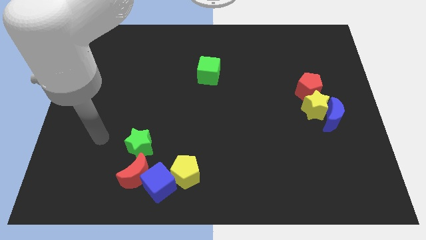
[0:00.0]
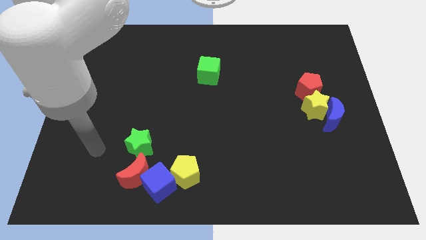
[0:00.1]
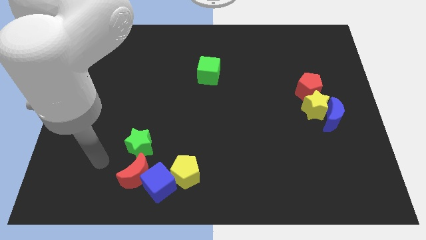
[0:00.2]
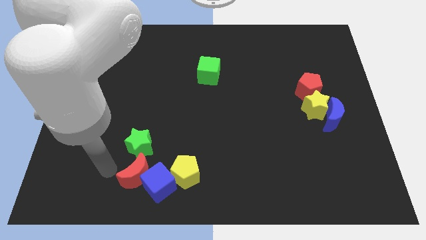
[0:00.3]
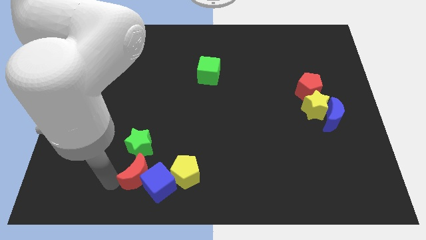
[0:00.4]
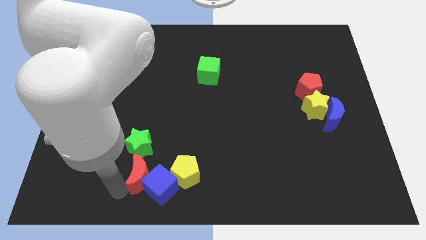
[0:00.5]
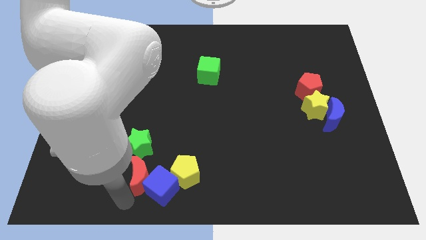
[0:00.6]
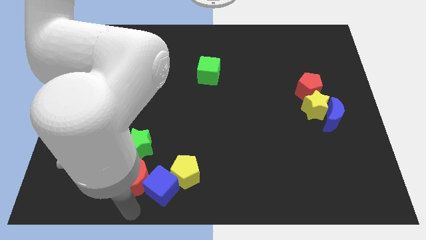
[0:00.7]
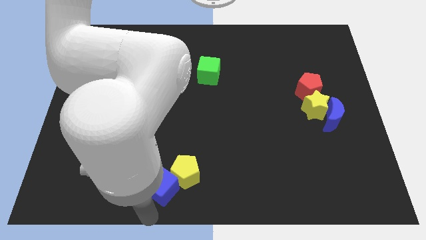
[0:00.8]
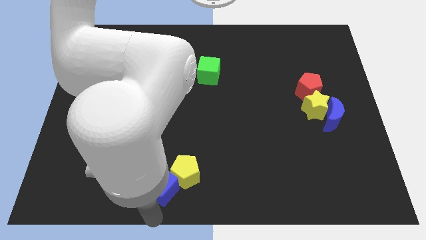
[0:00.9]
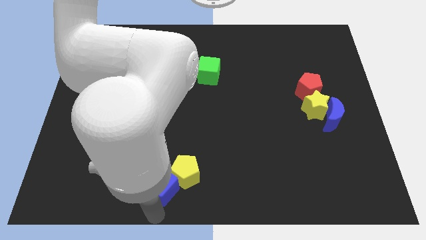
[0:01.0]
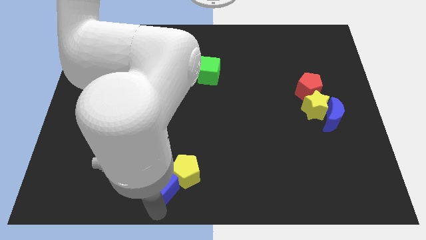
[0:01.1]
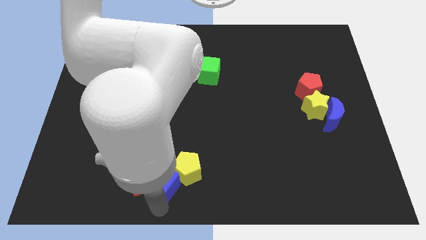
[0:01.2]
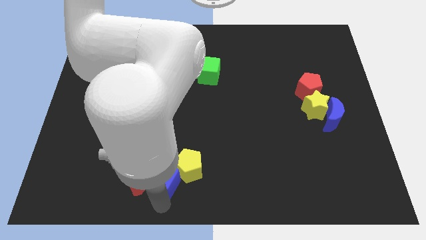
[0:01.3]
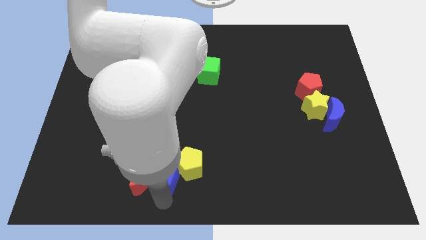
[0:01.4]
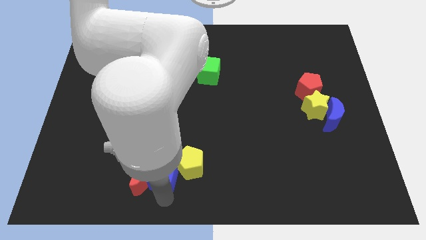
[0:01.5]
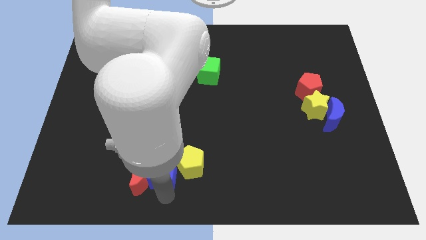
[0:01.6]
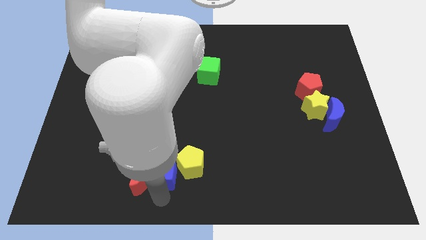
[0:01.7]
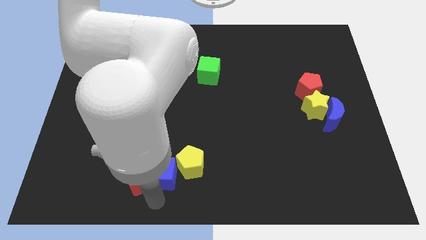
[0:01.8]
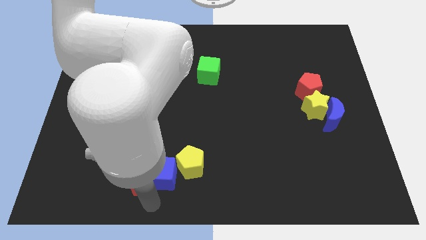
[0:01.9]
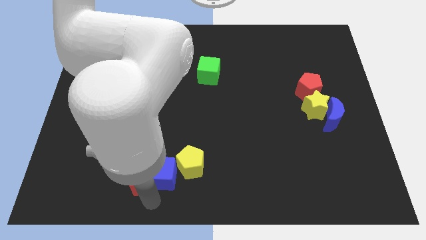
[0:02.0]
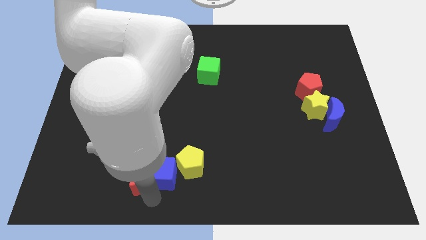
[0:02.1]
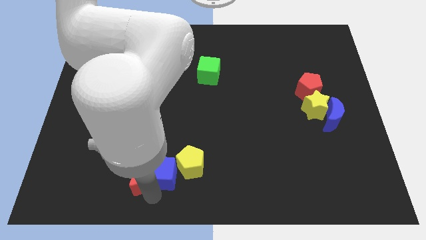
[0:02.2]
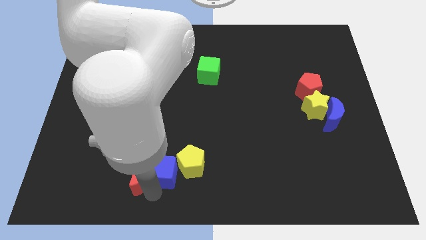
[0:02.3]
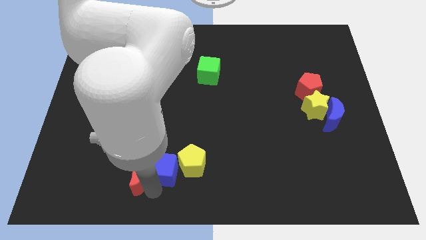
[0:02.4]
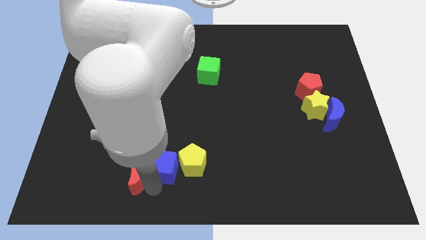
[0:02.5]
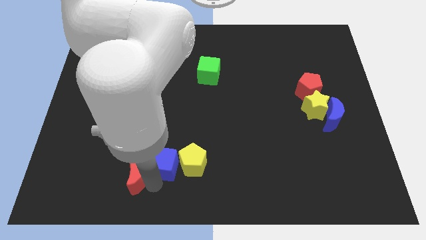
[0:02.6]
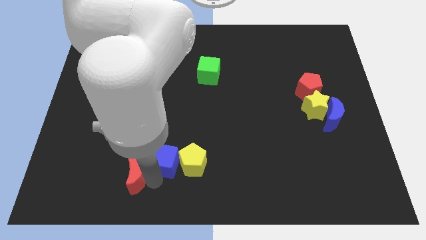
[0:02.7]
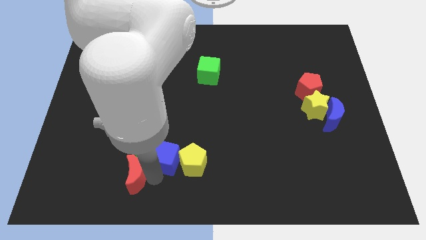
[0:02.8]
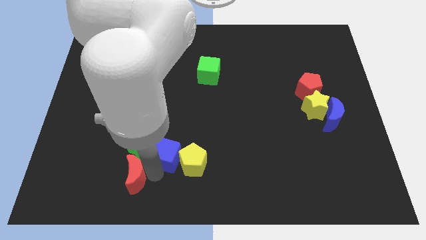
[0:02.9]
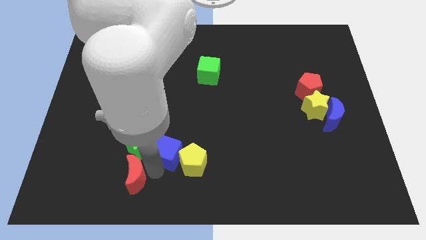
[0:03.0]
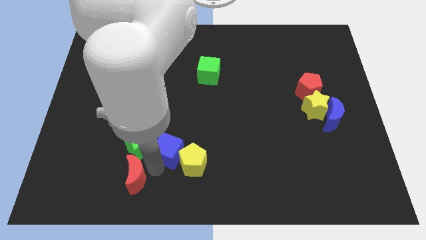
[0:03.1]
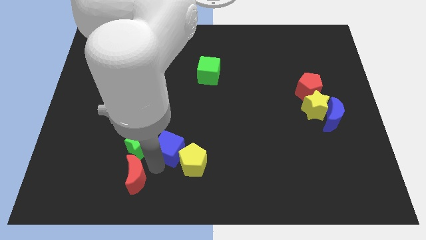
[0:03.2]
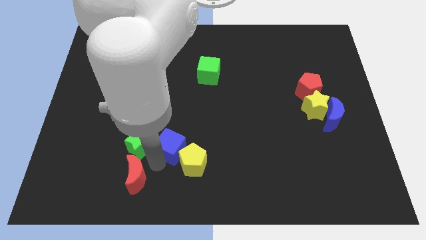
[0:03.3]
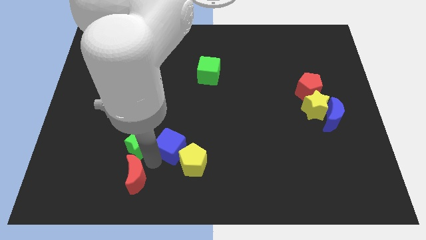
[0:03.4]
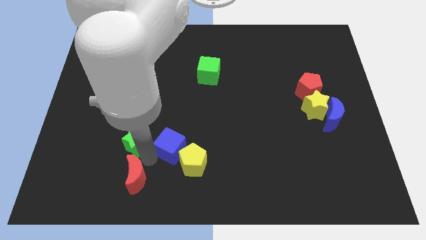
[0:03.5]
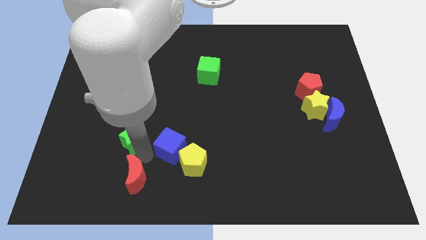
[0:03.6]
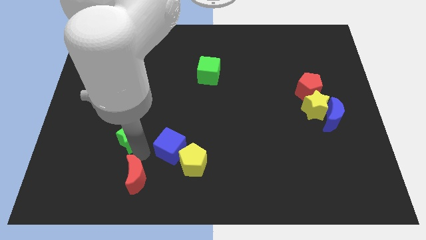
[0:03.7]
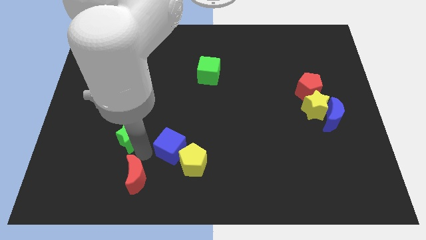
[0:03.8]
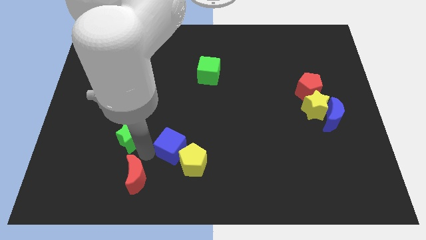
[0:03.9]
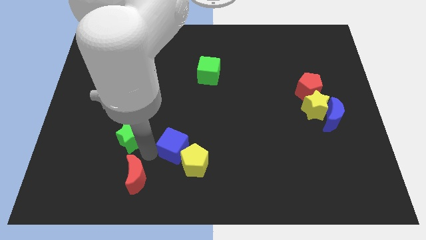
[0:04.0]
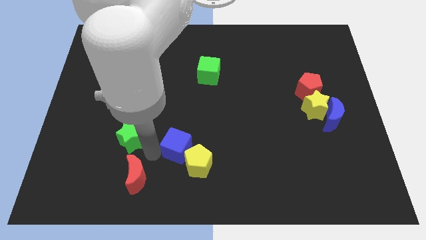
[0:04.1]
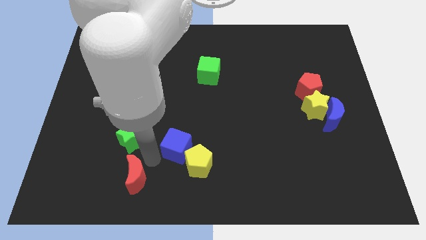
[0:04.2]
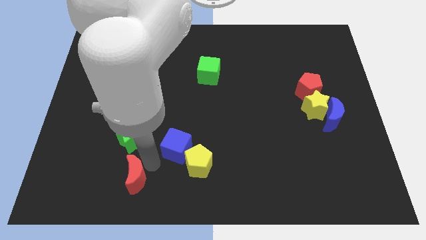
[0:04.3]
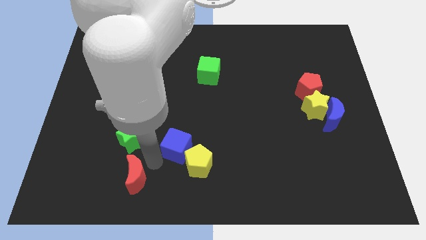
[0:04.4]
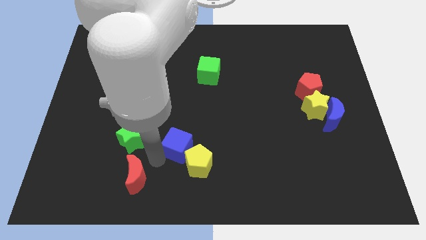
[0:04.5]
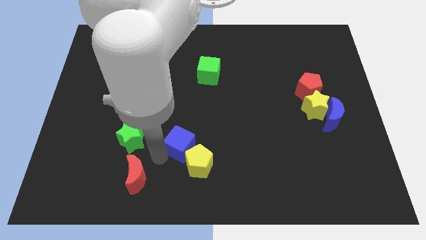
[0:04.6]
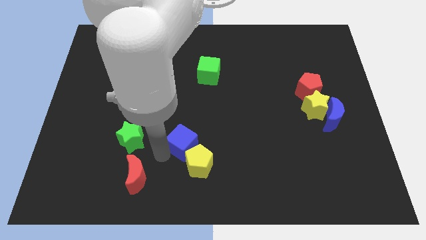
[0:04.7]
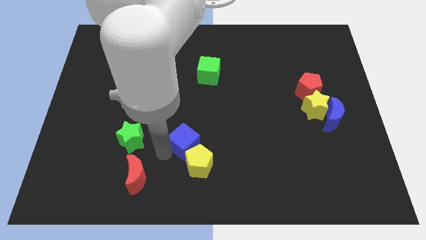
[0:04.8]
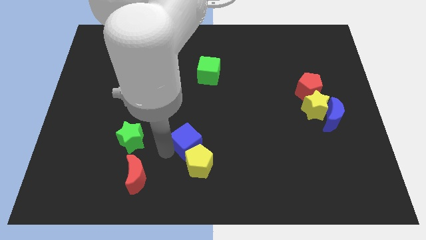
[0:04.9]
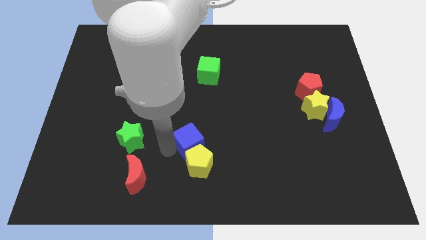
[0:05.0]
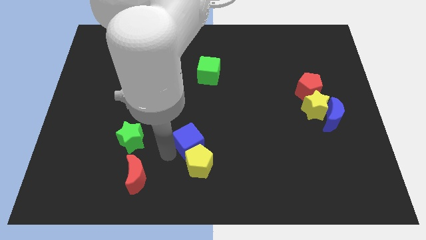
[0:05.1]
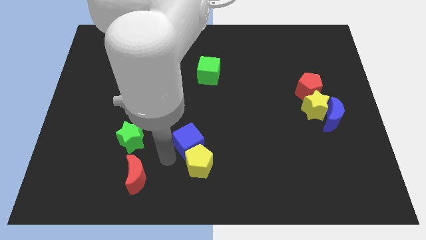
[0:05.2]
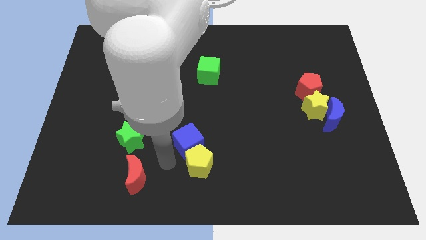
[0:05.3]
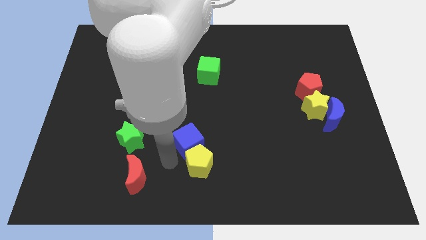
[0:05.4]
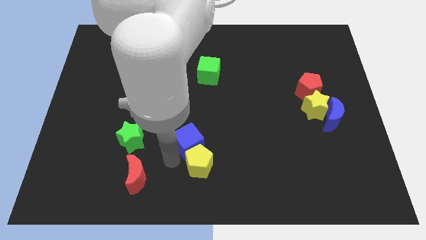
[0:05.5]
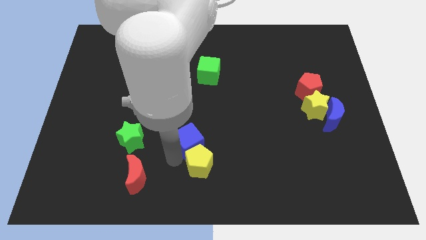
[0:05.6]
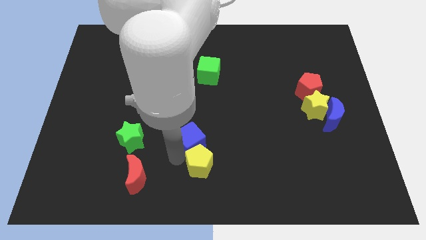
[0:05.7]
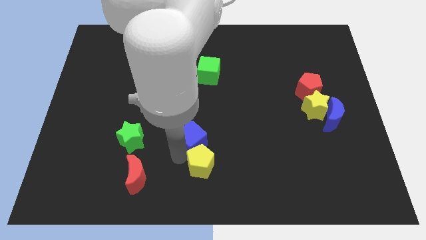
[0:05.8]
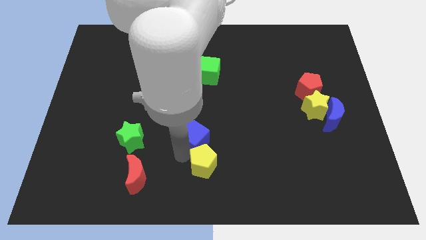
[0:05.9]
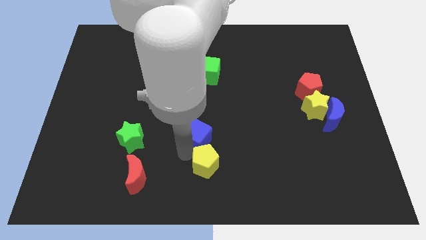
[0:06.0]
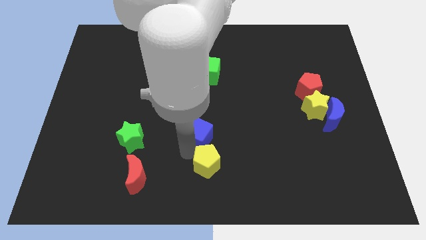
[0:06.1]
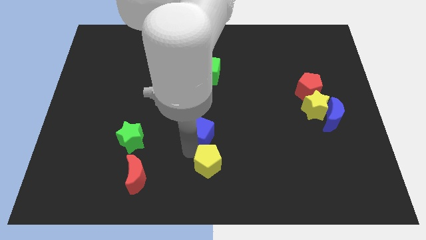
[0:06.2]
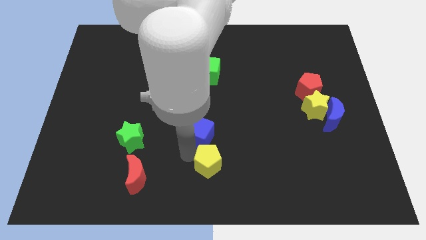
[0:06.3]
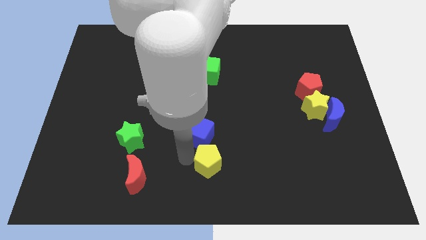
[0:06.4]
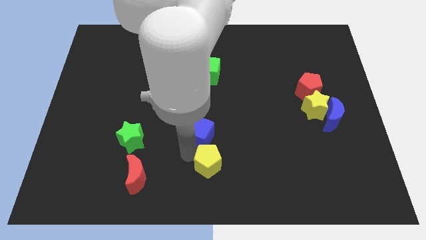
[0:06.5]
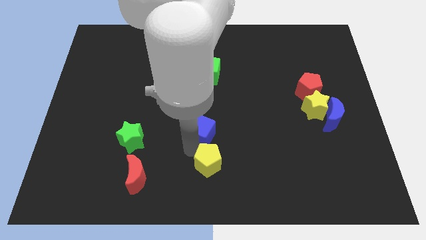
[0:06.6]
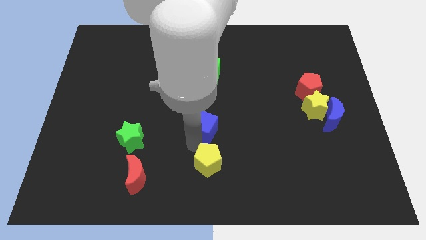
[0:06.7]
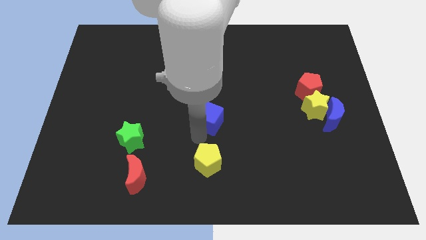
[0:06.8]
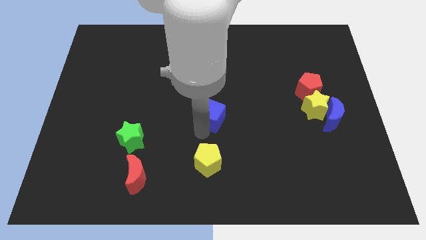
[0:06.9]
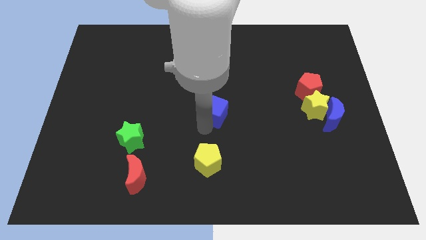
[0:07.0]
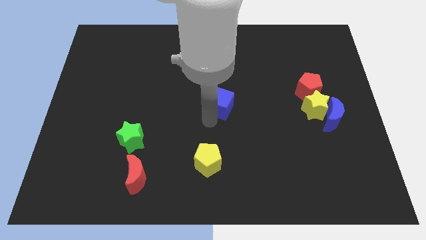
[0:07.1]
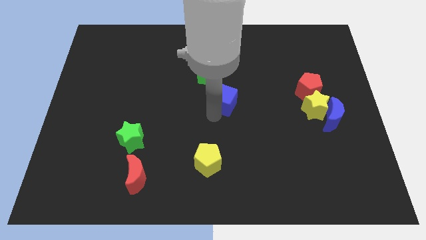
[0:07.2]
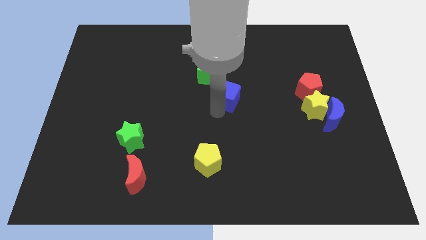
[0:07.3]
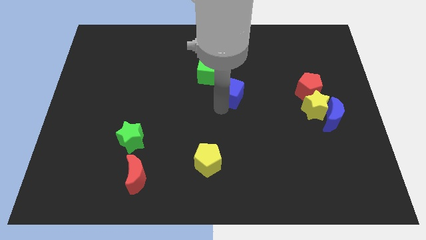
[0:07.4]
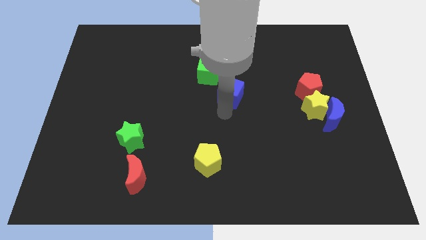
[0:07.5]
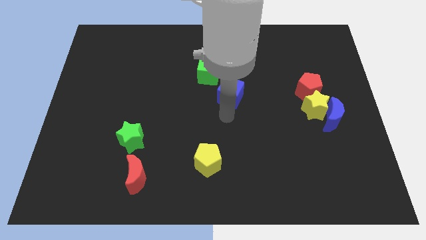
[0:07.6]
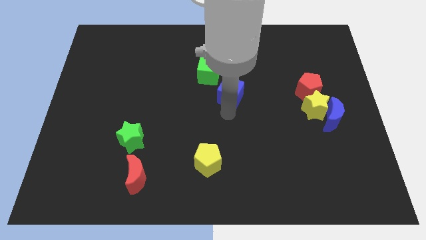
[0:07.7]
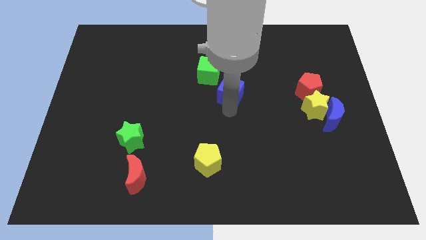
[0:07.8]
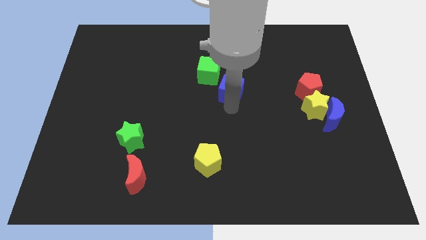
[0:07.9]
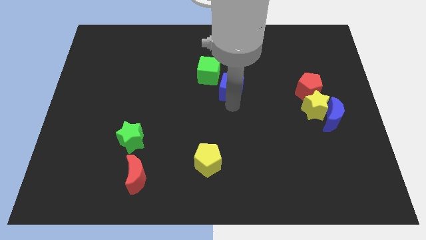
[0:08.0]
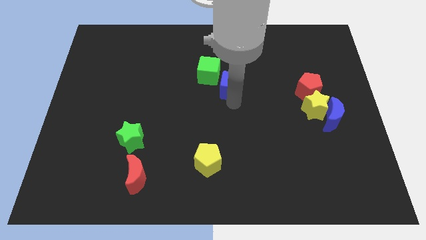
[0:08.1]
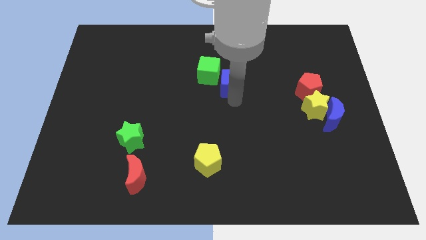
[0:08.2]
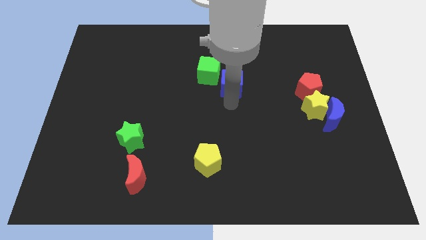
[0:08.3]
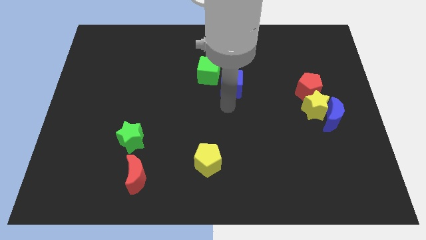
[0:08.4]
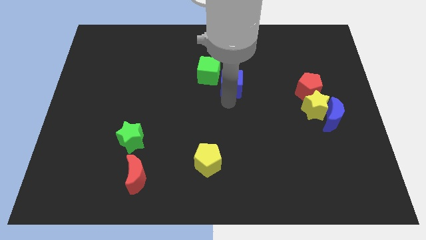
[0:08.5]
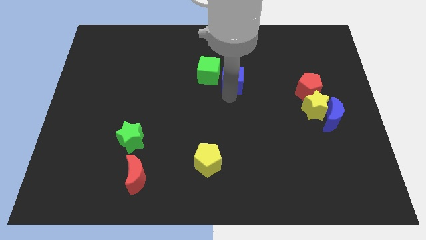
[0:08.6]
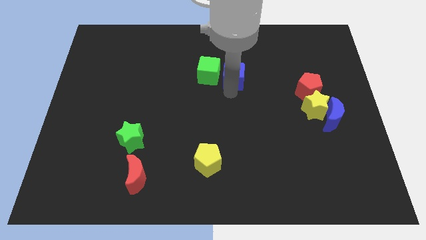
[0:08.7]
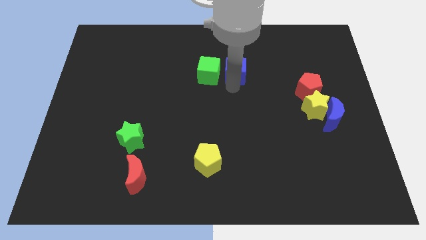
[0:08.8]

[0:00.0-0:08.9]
slide the blue cube diagonally up and to the right of the green cube
